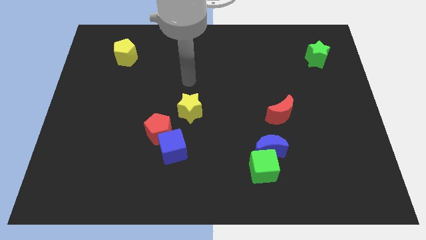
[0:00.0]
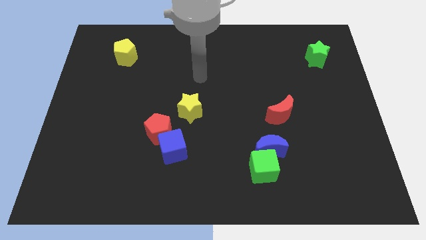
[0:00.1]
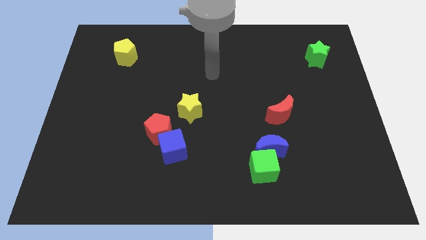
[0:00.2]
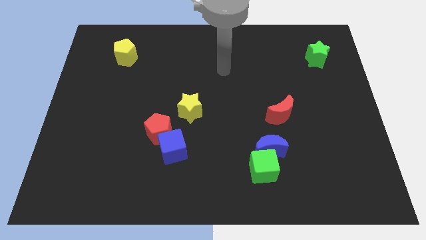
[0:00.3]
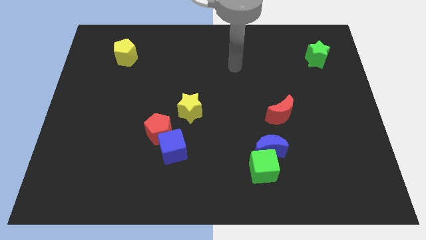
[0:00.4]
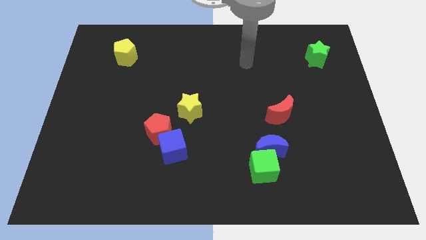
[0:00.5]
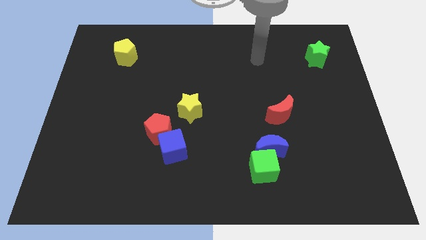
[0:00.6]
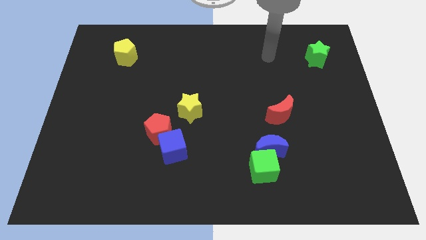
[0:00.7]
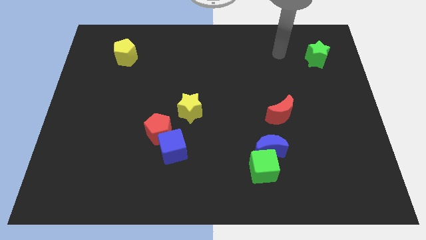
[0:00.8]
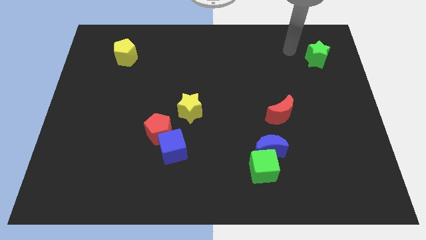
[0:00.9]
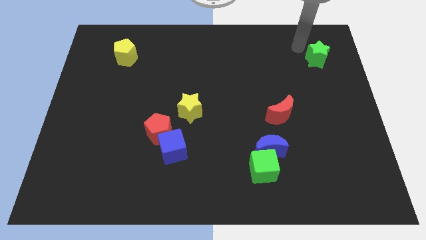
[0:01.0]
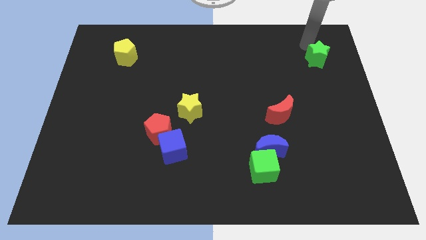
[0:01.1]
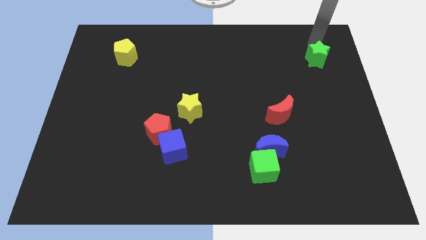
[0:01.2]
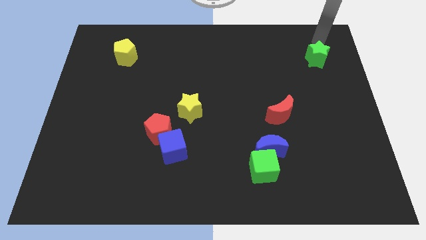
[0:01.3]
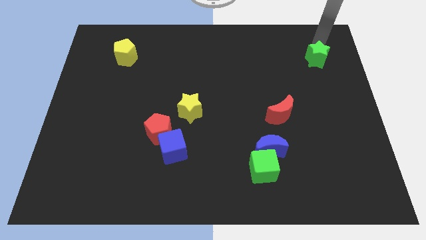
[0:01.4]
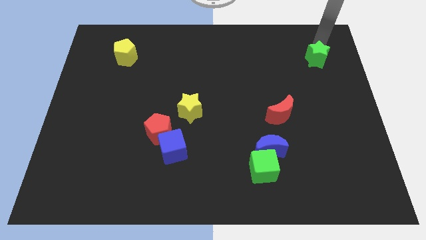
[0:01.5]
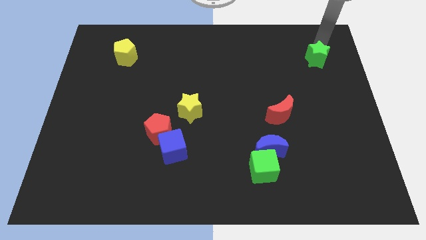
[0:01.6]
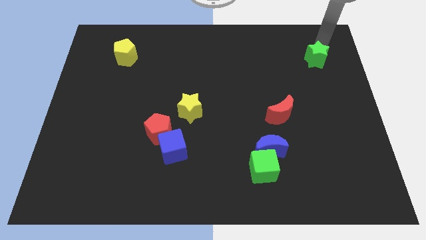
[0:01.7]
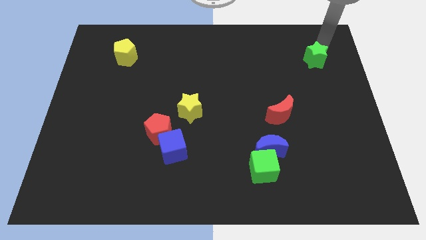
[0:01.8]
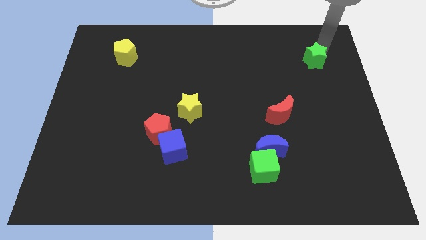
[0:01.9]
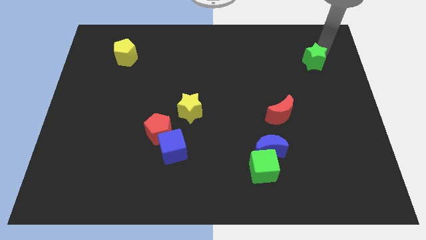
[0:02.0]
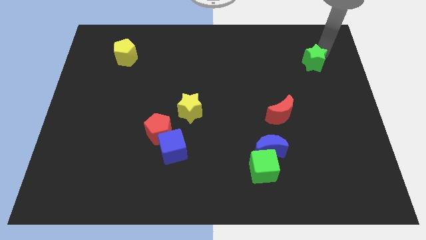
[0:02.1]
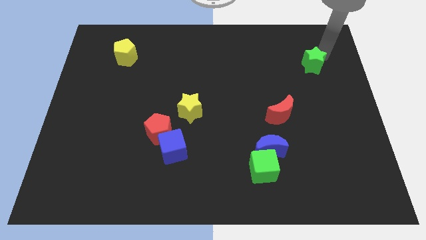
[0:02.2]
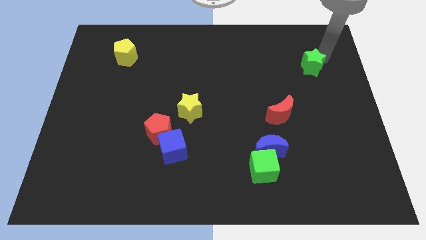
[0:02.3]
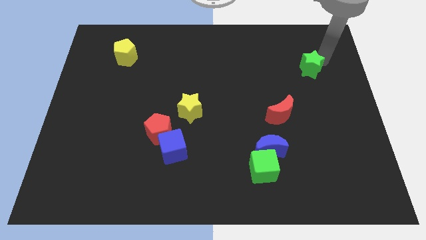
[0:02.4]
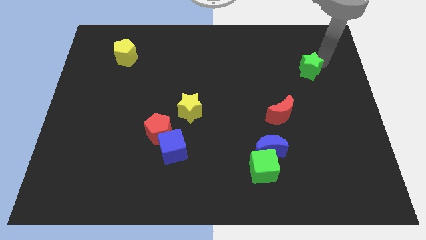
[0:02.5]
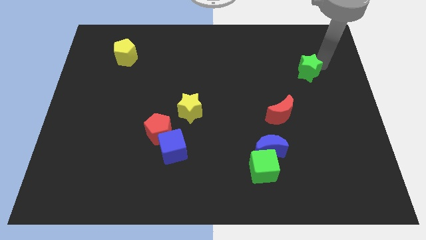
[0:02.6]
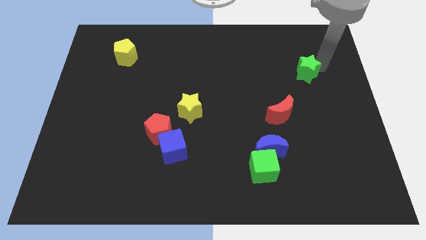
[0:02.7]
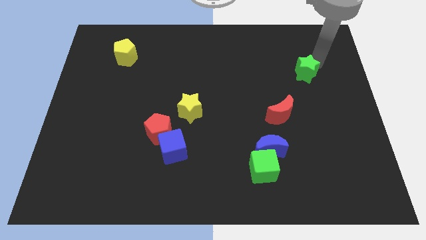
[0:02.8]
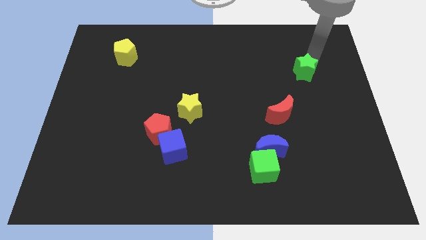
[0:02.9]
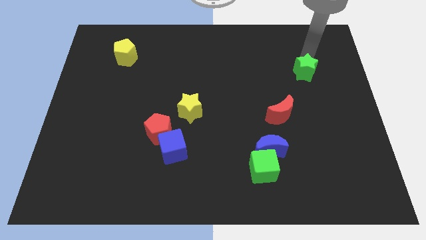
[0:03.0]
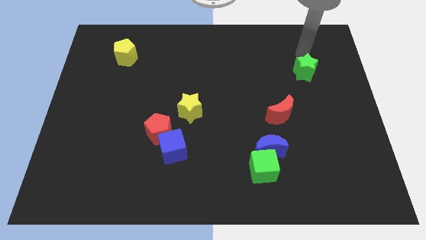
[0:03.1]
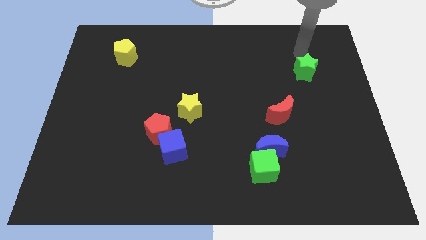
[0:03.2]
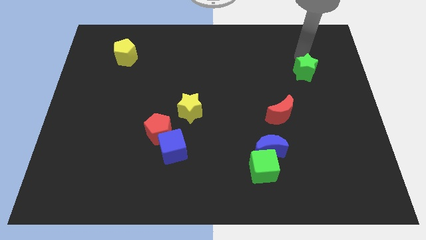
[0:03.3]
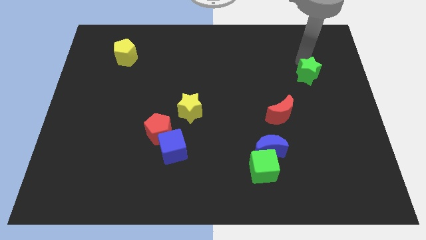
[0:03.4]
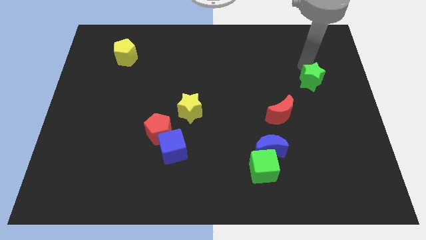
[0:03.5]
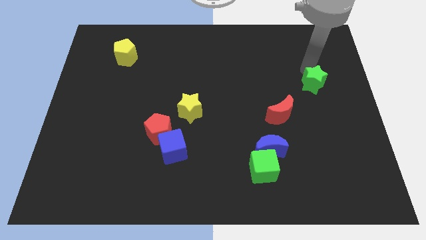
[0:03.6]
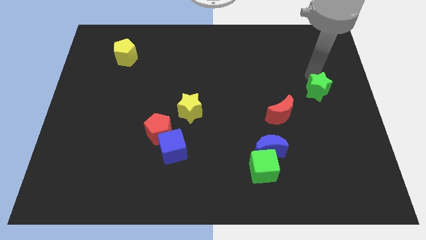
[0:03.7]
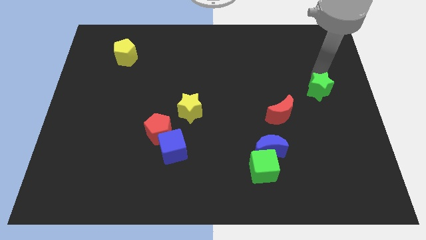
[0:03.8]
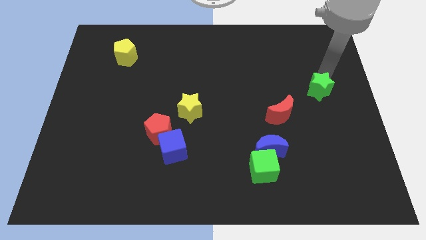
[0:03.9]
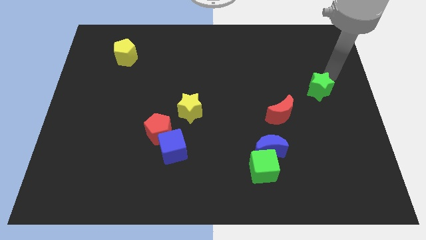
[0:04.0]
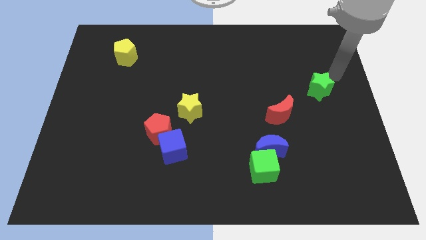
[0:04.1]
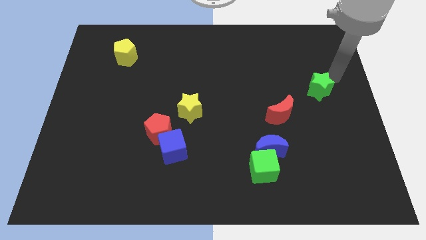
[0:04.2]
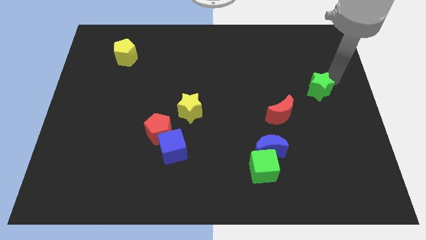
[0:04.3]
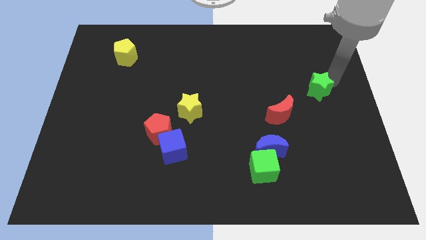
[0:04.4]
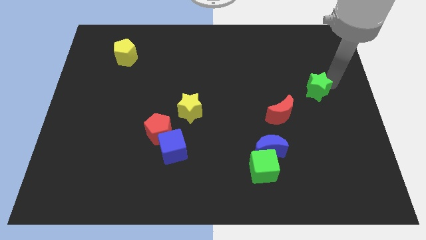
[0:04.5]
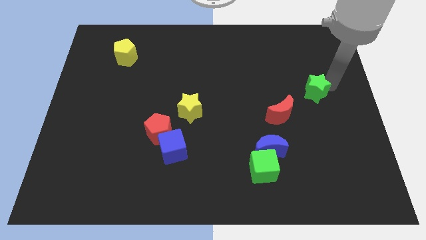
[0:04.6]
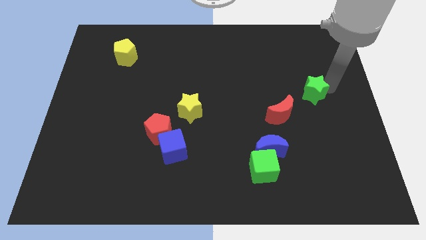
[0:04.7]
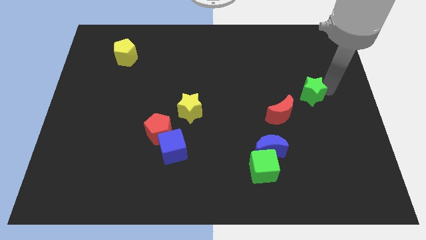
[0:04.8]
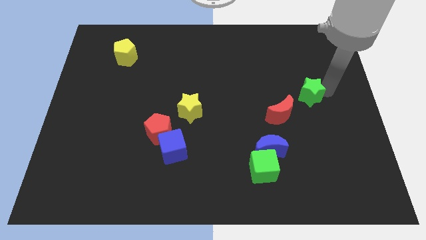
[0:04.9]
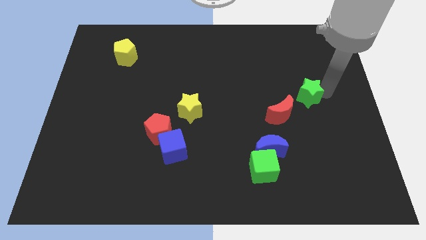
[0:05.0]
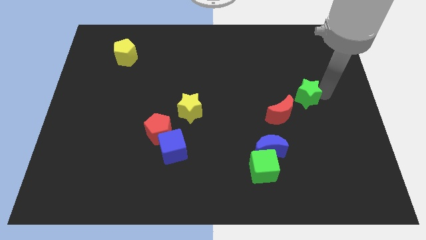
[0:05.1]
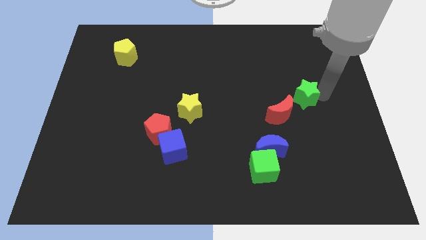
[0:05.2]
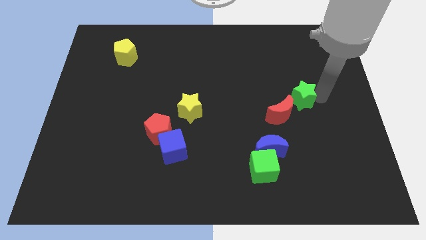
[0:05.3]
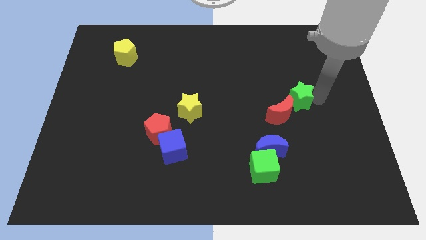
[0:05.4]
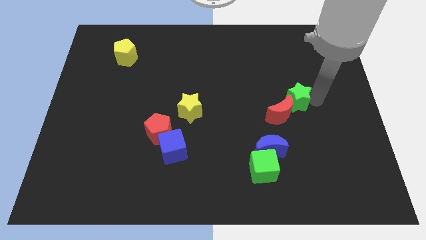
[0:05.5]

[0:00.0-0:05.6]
put the green star close to the red moon

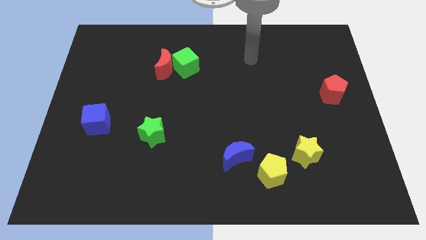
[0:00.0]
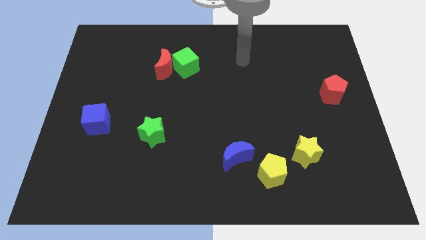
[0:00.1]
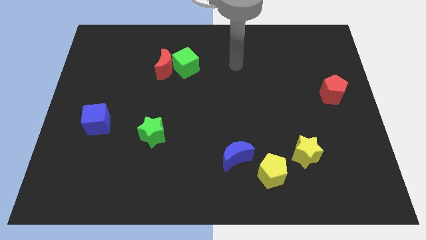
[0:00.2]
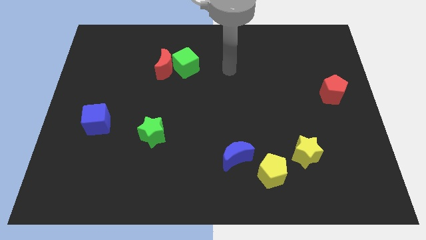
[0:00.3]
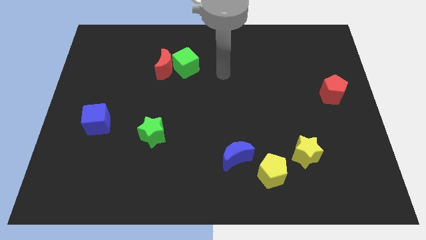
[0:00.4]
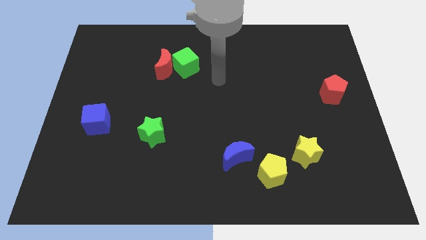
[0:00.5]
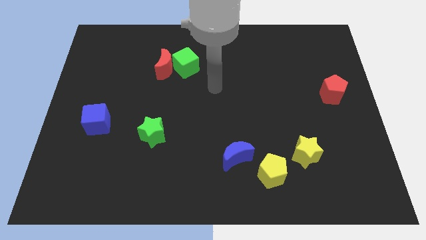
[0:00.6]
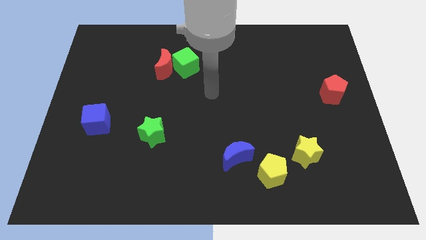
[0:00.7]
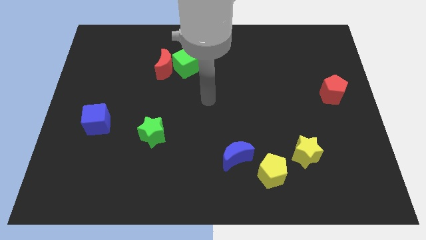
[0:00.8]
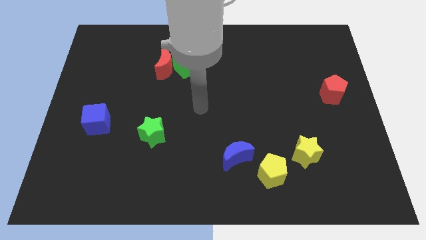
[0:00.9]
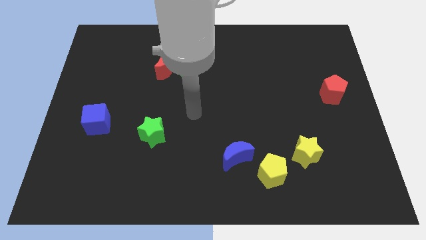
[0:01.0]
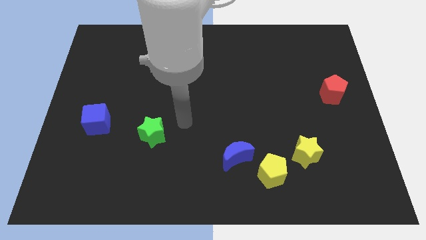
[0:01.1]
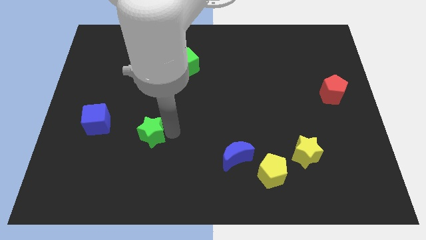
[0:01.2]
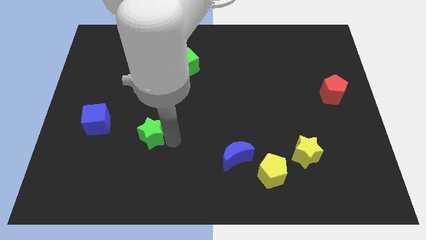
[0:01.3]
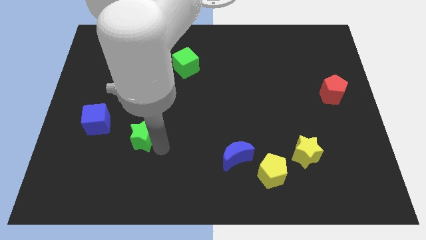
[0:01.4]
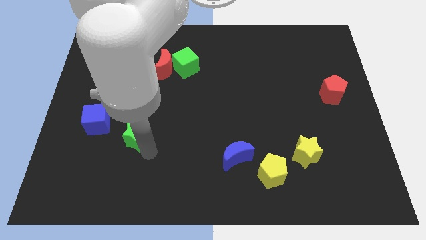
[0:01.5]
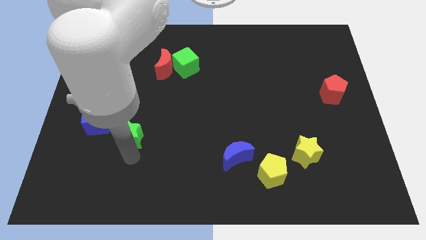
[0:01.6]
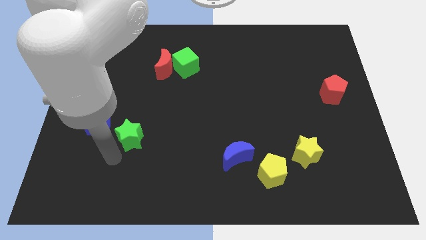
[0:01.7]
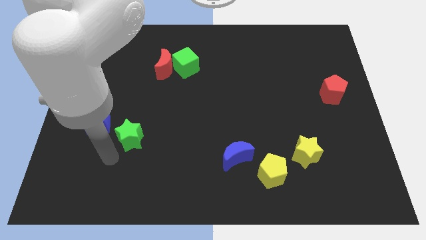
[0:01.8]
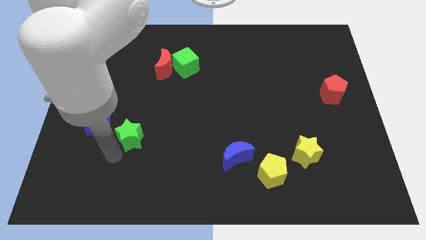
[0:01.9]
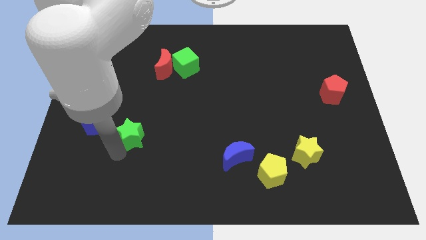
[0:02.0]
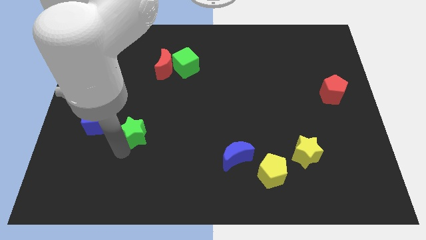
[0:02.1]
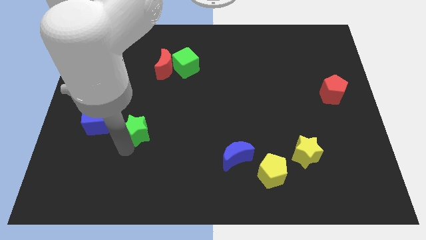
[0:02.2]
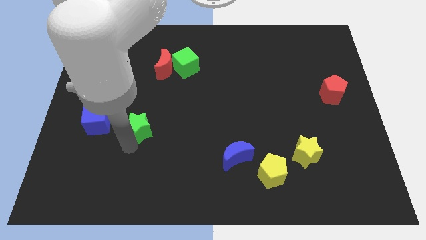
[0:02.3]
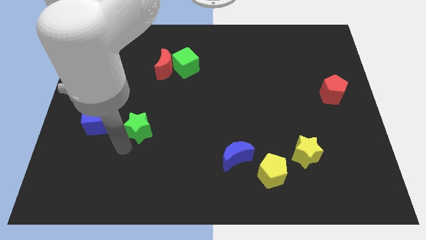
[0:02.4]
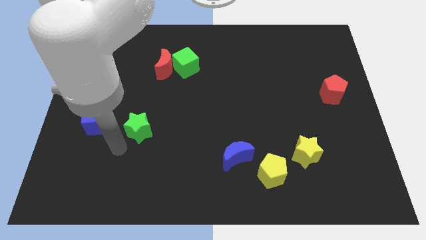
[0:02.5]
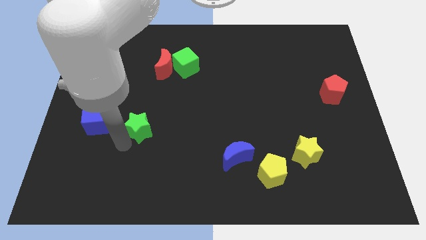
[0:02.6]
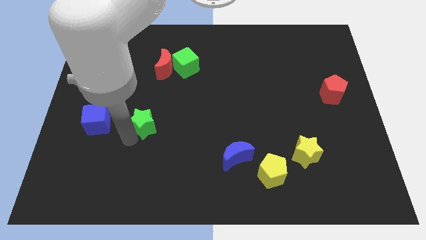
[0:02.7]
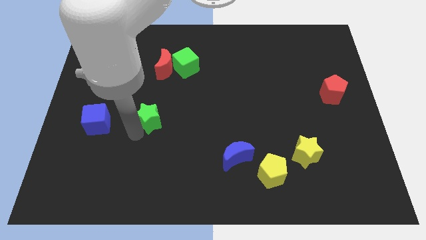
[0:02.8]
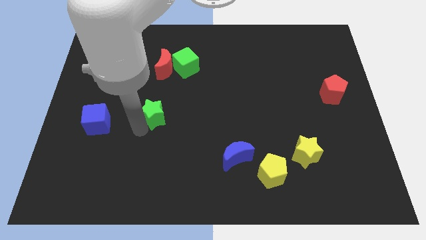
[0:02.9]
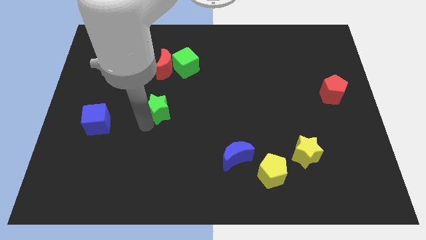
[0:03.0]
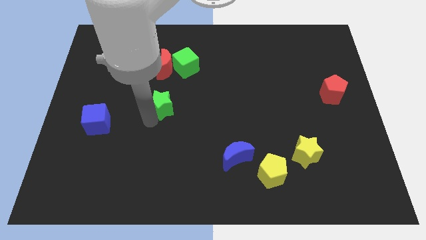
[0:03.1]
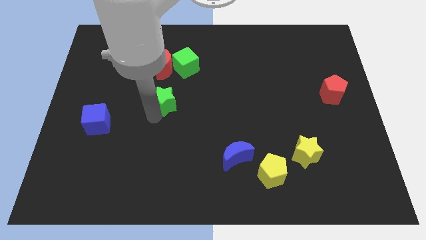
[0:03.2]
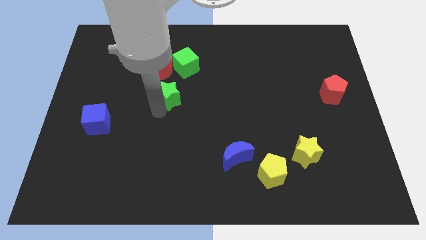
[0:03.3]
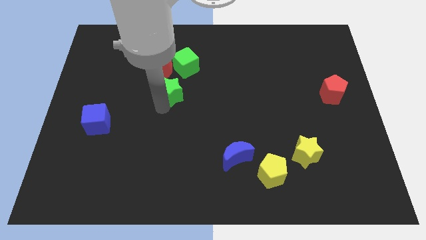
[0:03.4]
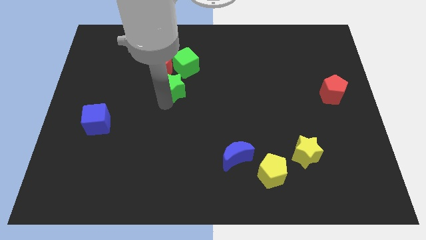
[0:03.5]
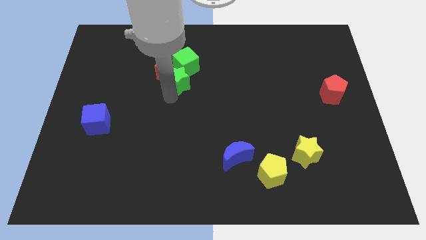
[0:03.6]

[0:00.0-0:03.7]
push the green star to the green cube
